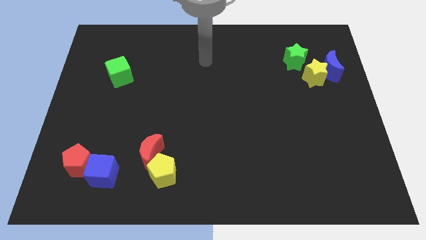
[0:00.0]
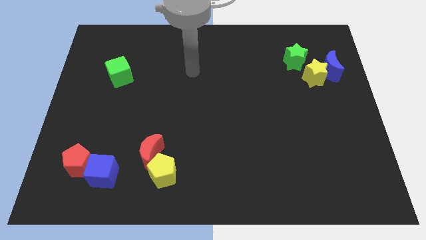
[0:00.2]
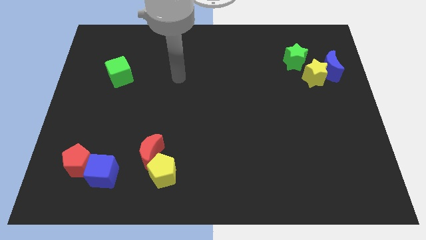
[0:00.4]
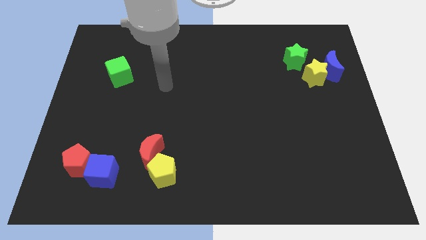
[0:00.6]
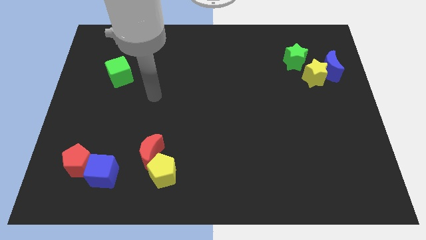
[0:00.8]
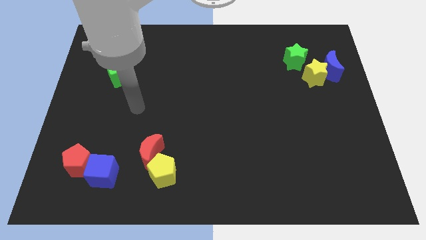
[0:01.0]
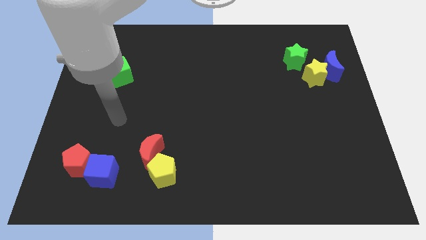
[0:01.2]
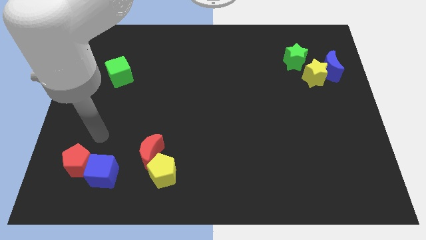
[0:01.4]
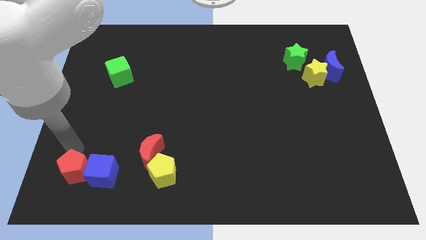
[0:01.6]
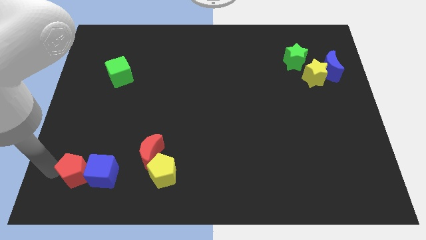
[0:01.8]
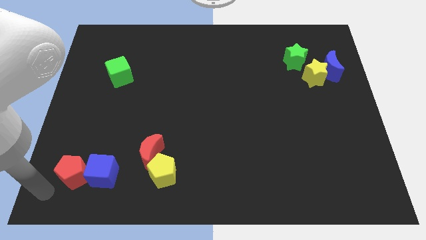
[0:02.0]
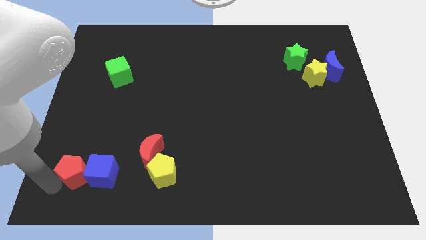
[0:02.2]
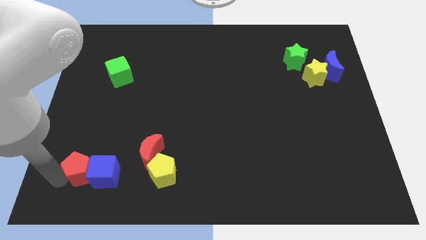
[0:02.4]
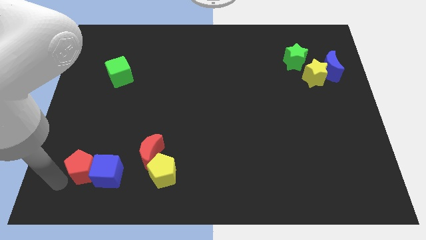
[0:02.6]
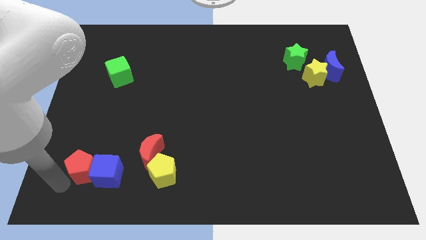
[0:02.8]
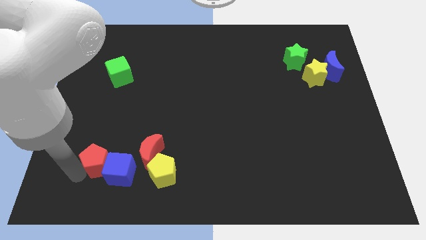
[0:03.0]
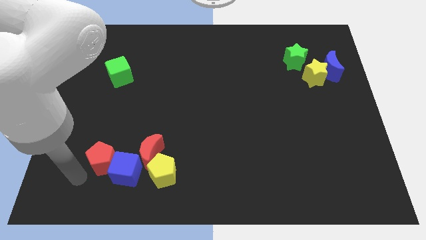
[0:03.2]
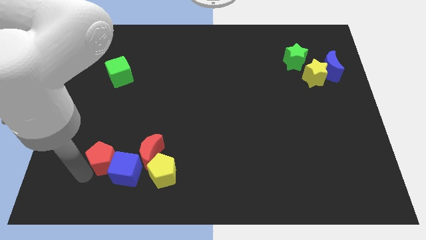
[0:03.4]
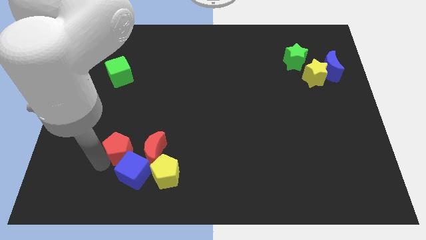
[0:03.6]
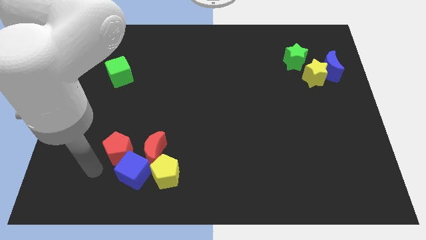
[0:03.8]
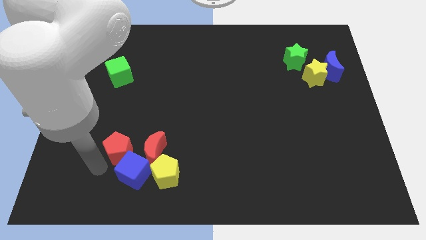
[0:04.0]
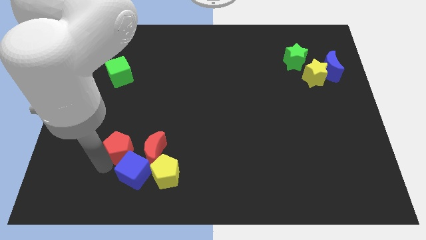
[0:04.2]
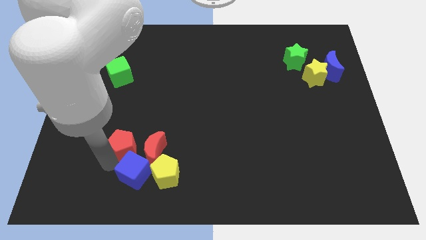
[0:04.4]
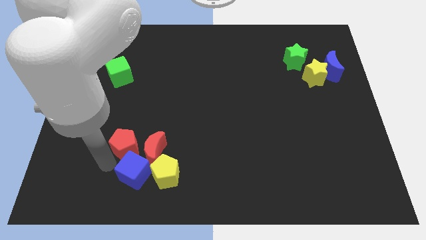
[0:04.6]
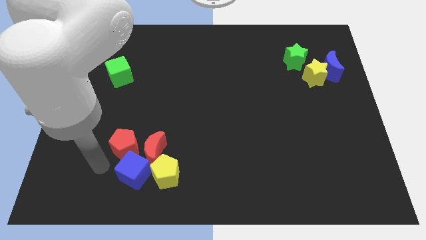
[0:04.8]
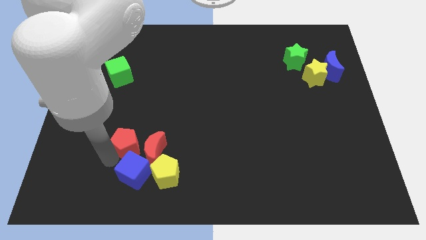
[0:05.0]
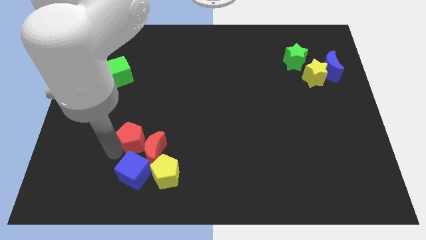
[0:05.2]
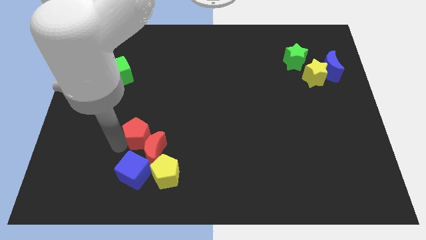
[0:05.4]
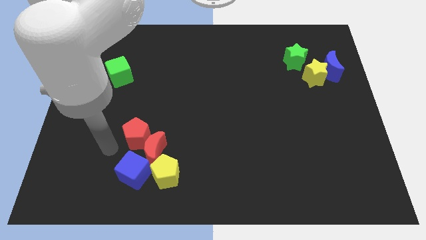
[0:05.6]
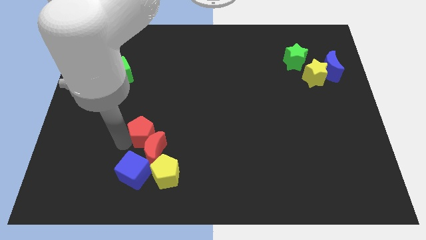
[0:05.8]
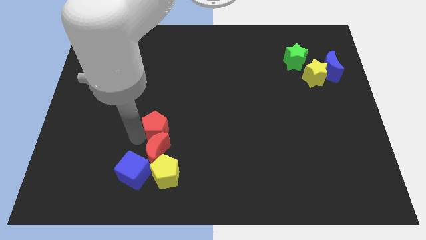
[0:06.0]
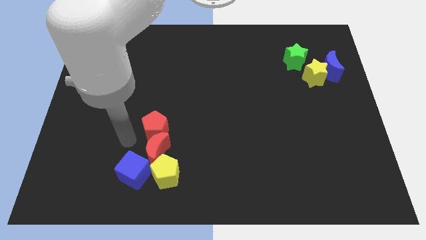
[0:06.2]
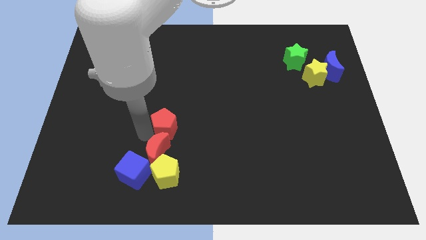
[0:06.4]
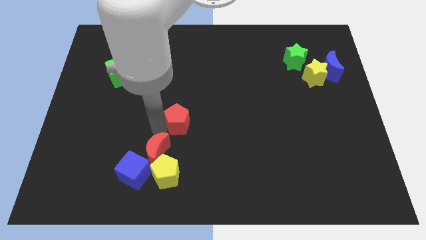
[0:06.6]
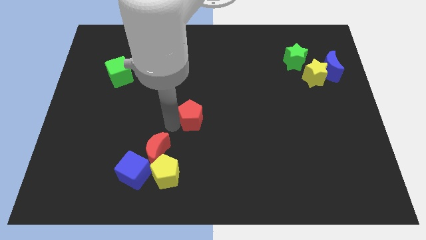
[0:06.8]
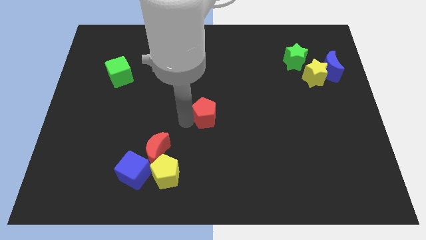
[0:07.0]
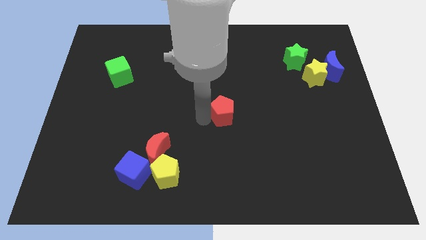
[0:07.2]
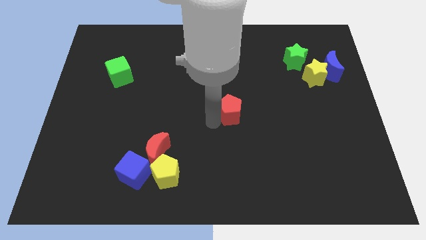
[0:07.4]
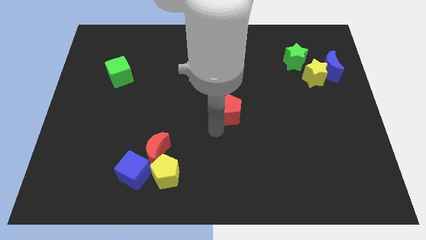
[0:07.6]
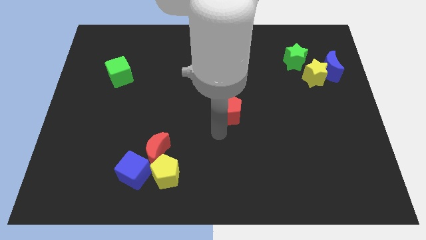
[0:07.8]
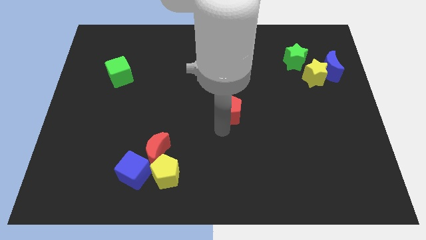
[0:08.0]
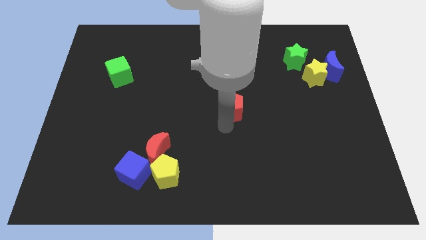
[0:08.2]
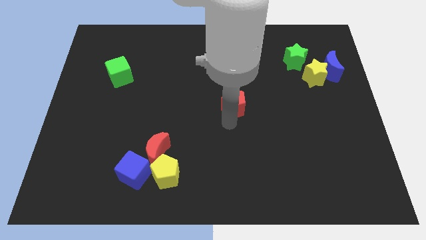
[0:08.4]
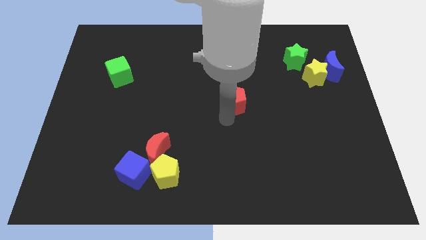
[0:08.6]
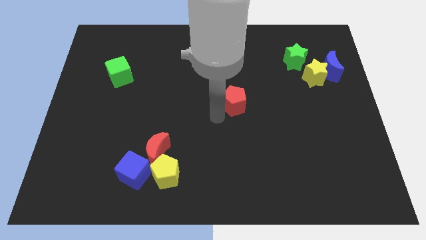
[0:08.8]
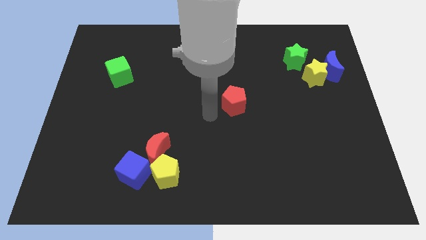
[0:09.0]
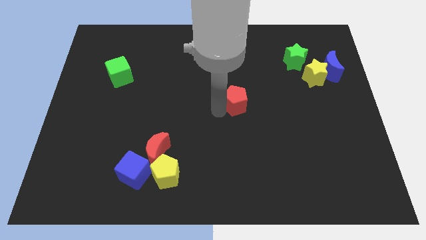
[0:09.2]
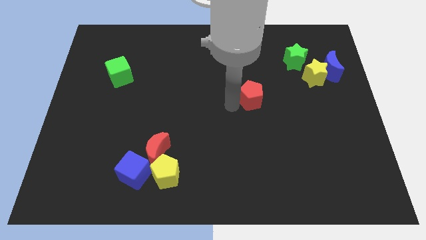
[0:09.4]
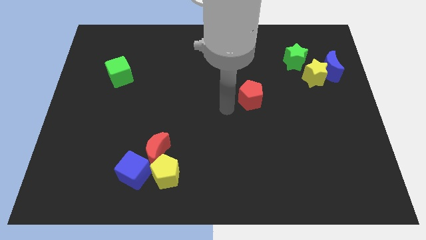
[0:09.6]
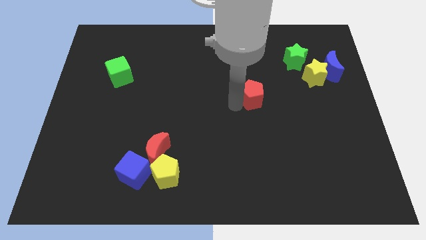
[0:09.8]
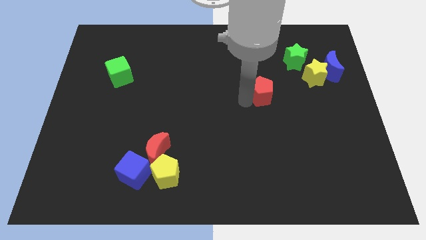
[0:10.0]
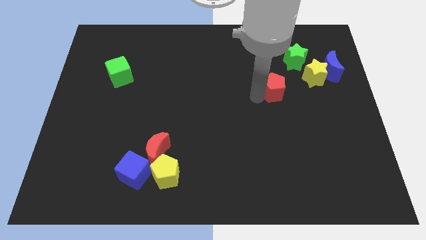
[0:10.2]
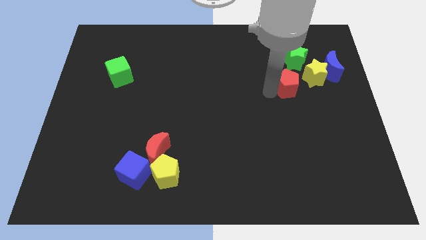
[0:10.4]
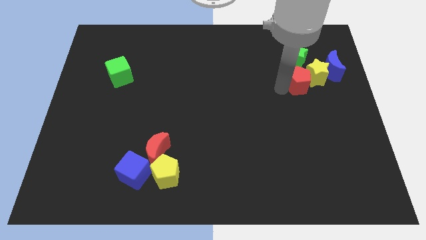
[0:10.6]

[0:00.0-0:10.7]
put the red pentagon to the yellow star

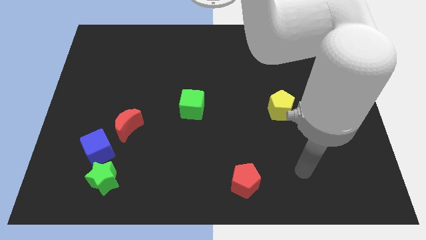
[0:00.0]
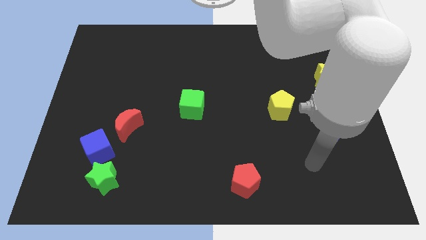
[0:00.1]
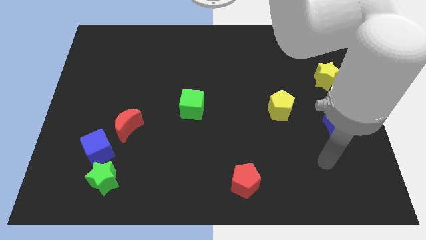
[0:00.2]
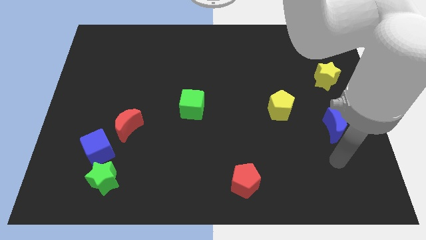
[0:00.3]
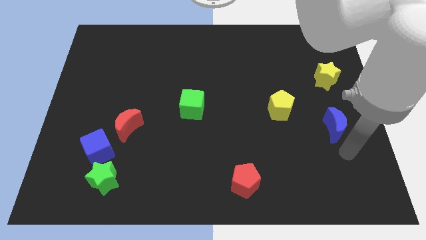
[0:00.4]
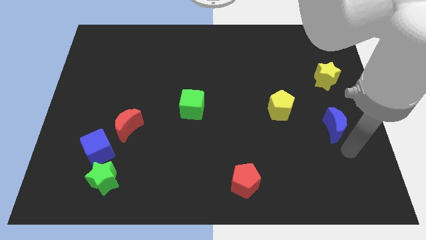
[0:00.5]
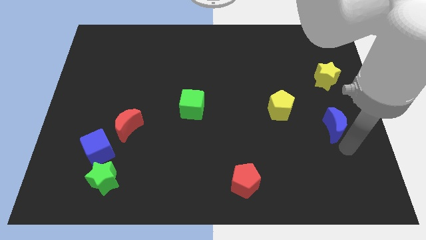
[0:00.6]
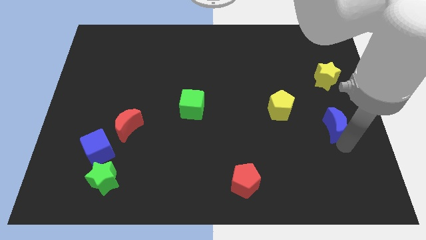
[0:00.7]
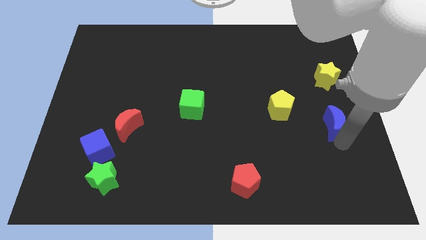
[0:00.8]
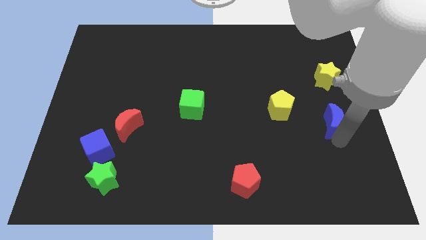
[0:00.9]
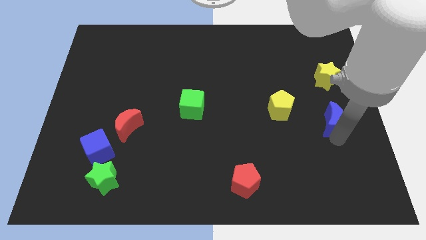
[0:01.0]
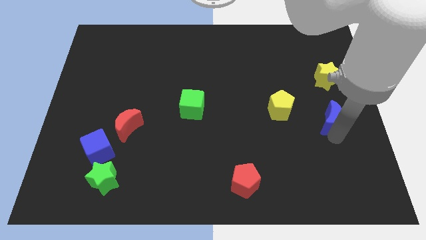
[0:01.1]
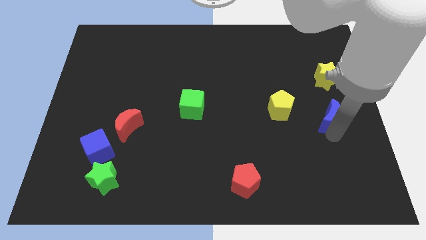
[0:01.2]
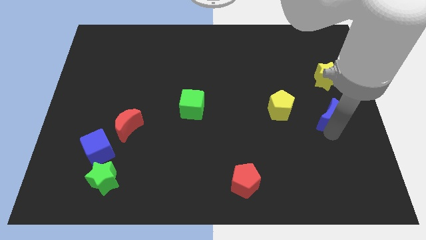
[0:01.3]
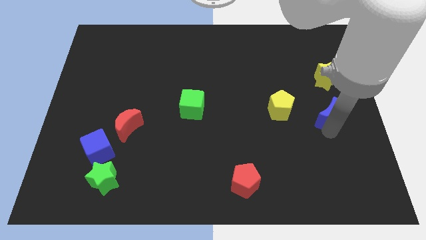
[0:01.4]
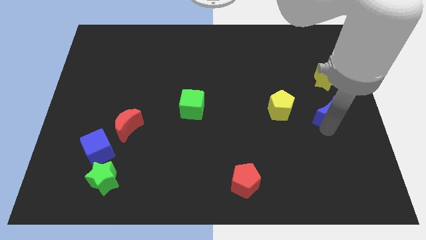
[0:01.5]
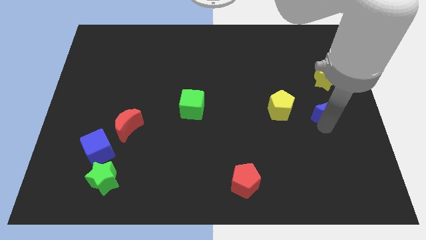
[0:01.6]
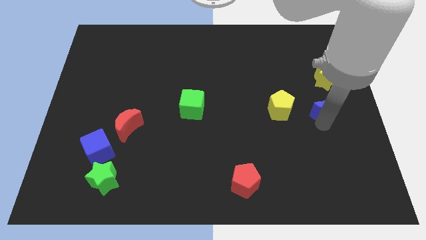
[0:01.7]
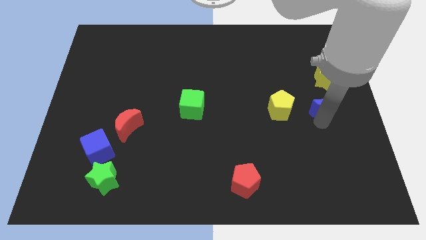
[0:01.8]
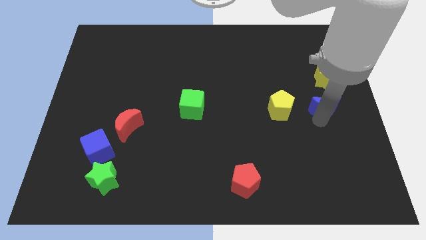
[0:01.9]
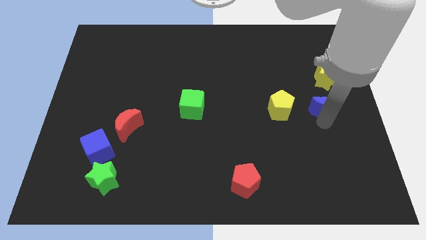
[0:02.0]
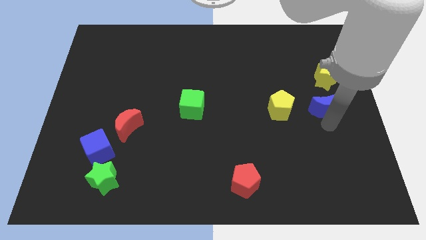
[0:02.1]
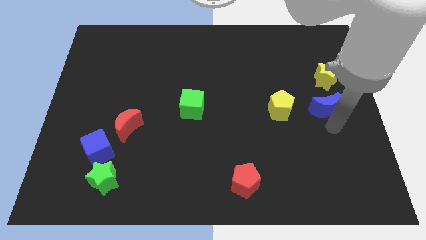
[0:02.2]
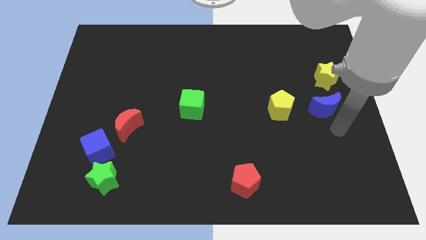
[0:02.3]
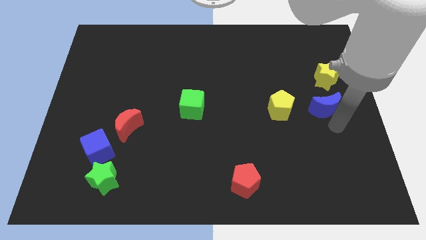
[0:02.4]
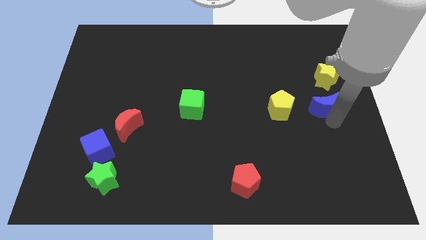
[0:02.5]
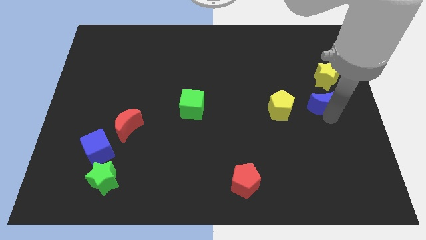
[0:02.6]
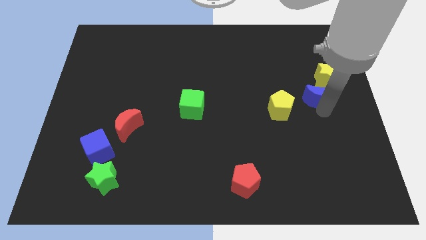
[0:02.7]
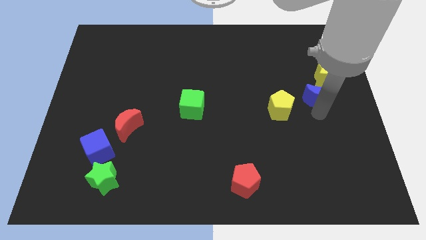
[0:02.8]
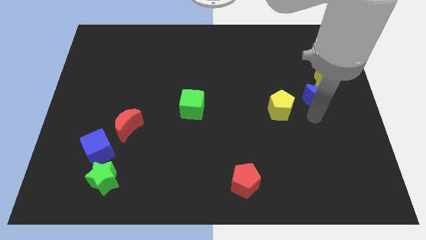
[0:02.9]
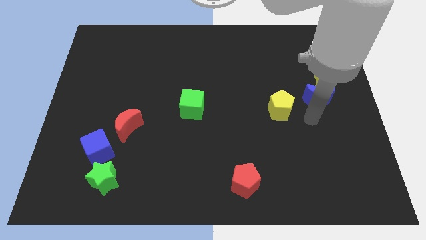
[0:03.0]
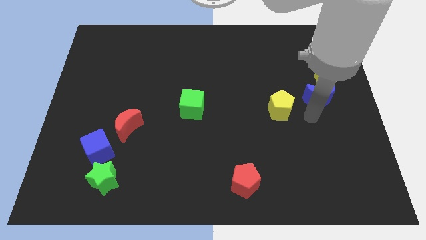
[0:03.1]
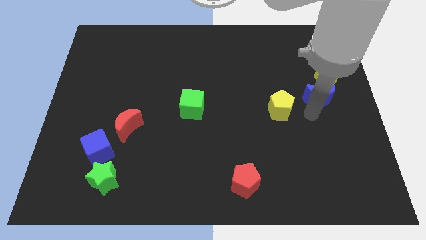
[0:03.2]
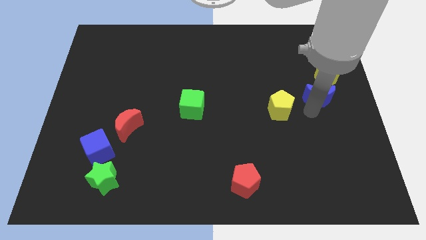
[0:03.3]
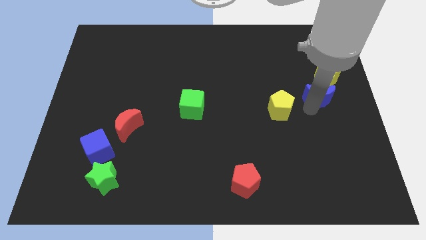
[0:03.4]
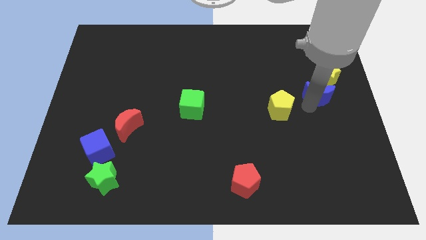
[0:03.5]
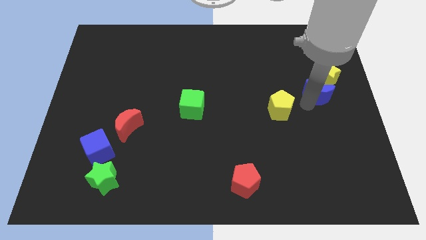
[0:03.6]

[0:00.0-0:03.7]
slide the blue moon close to the yellow star
